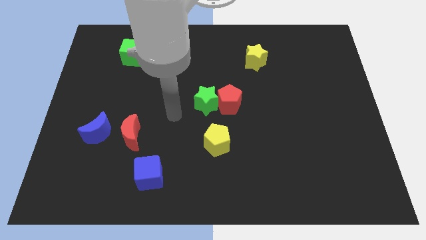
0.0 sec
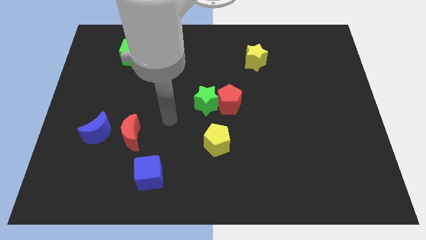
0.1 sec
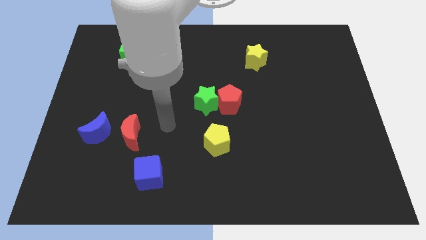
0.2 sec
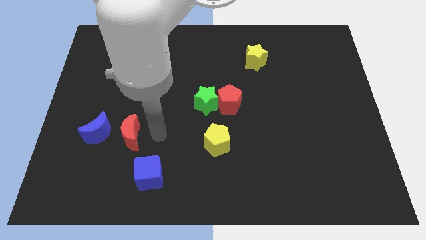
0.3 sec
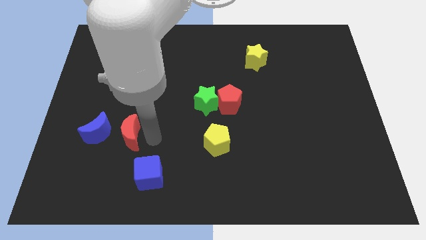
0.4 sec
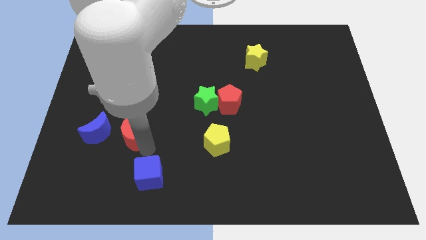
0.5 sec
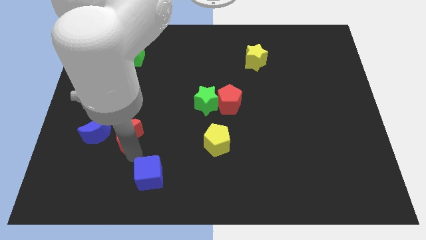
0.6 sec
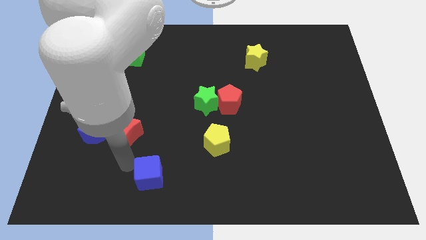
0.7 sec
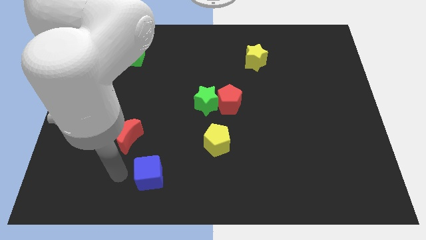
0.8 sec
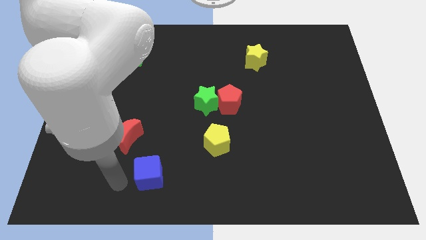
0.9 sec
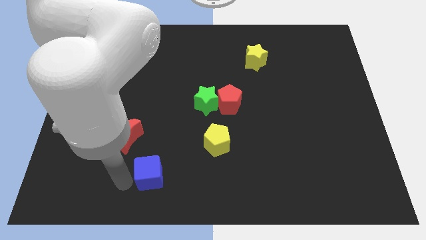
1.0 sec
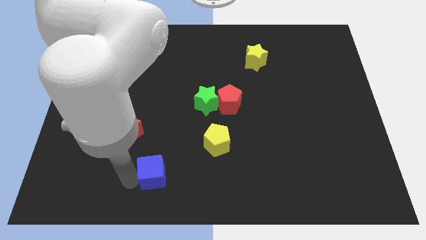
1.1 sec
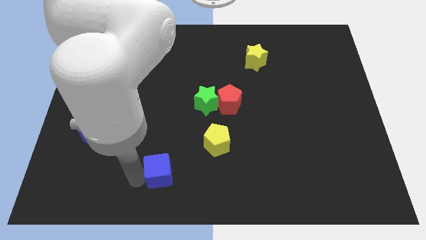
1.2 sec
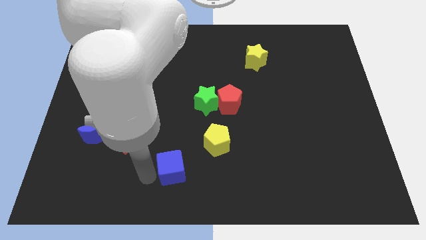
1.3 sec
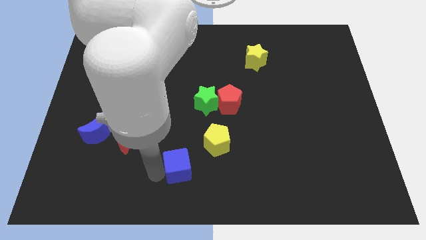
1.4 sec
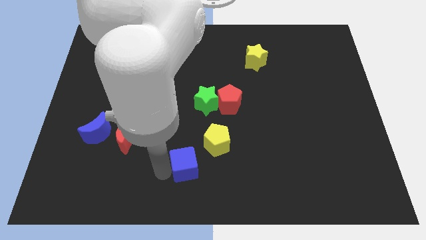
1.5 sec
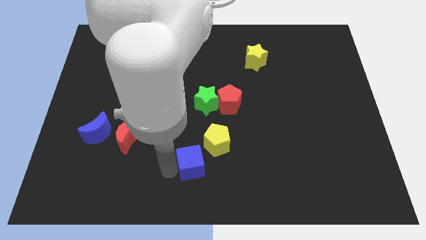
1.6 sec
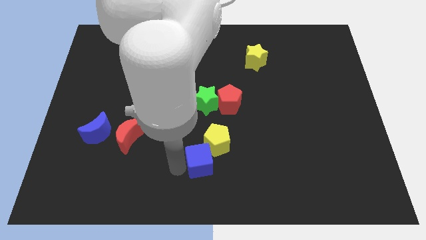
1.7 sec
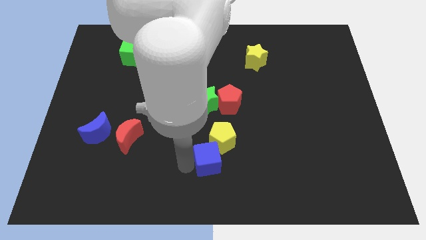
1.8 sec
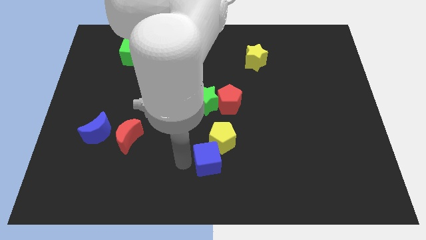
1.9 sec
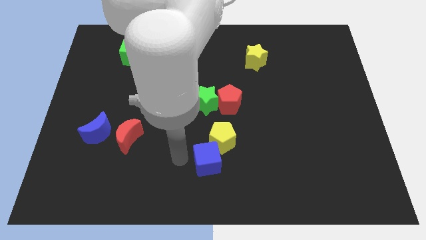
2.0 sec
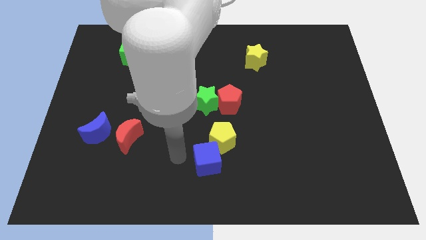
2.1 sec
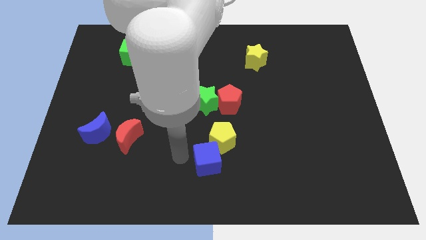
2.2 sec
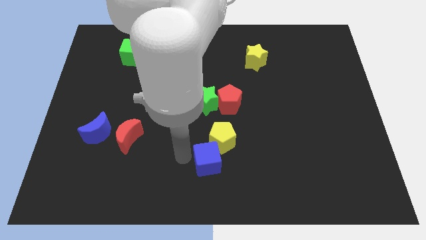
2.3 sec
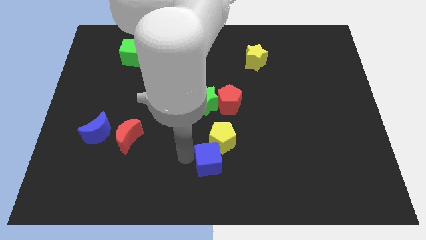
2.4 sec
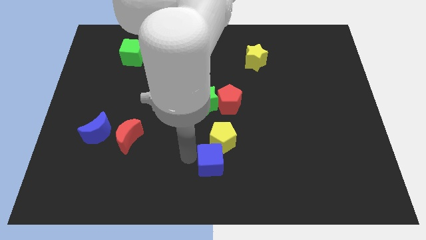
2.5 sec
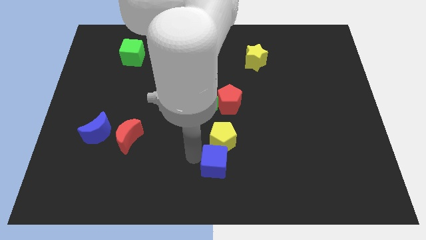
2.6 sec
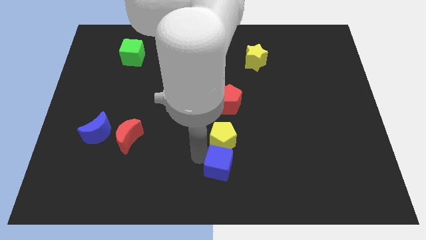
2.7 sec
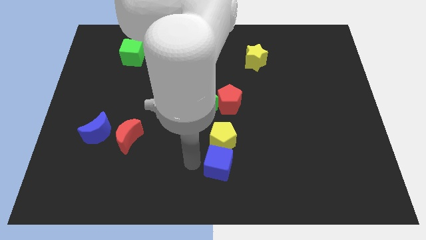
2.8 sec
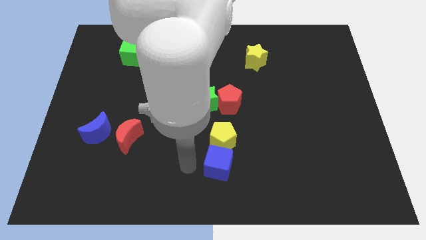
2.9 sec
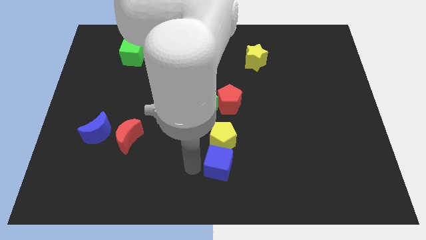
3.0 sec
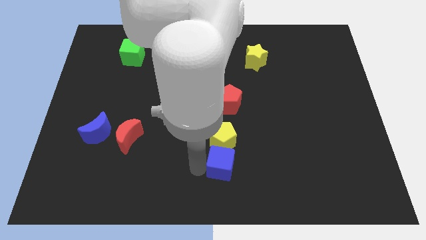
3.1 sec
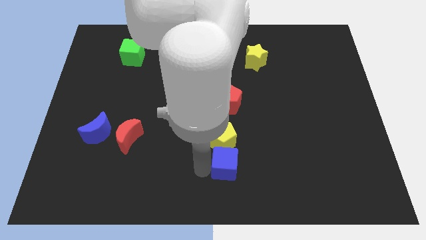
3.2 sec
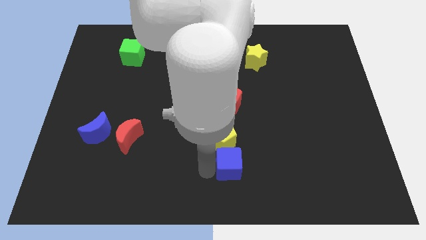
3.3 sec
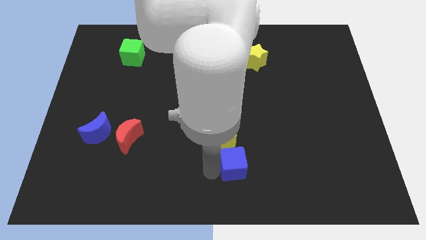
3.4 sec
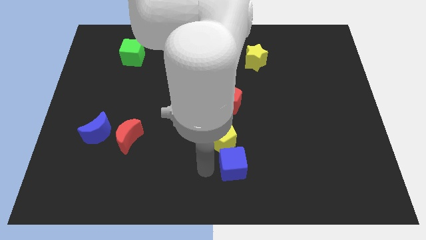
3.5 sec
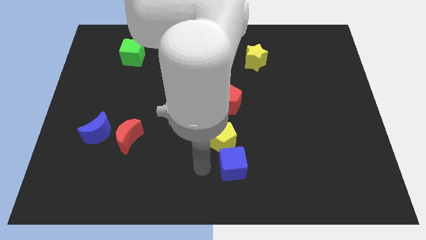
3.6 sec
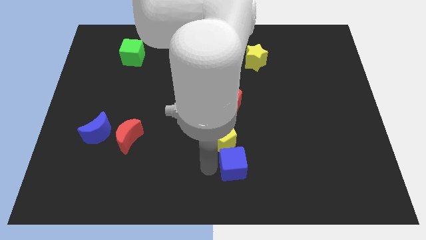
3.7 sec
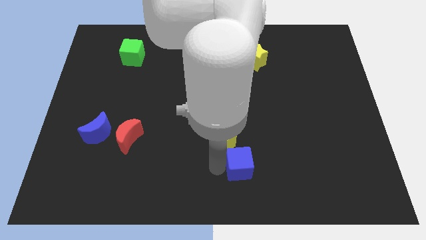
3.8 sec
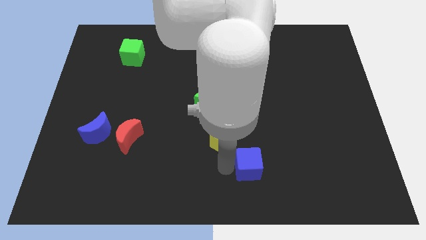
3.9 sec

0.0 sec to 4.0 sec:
push the blue cube to the right

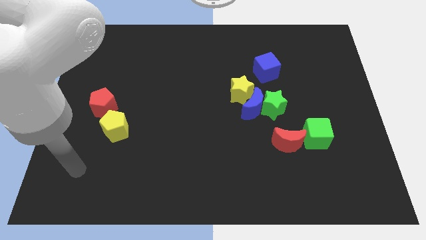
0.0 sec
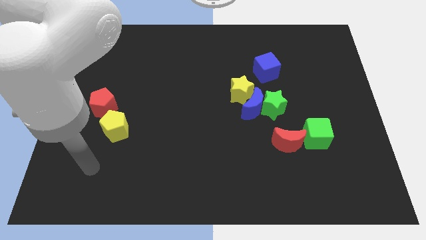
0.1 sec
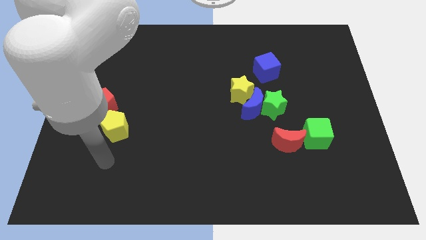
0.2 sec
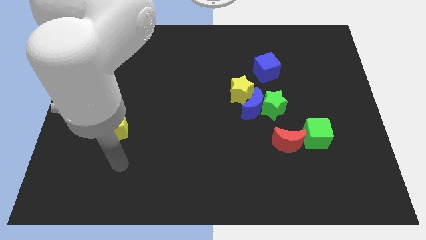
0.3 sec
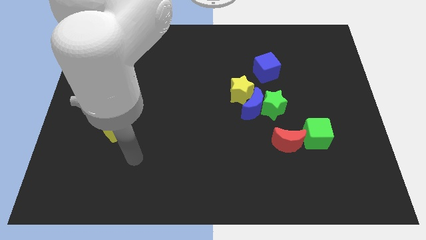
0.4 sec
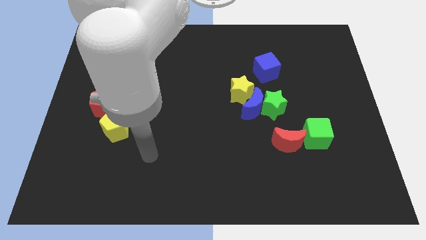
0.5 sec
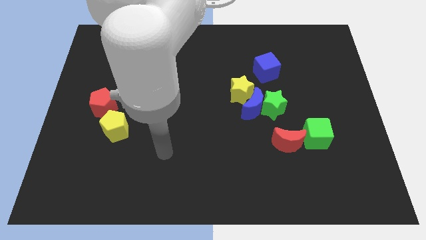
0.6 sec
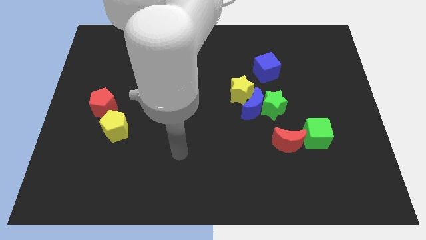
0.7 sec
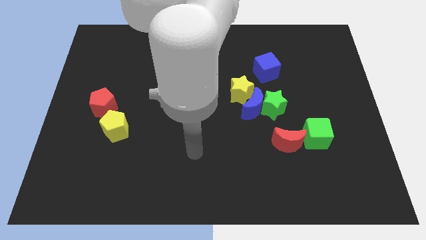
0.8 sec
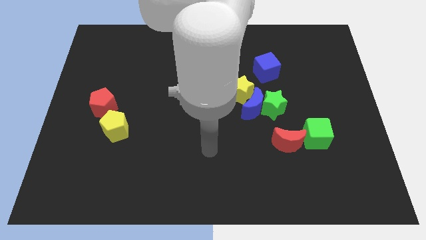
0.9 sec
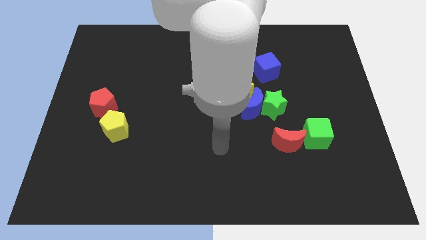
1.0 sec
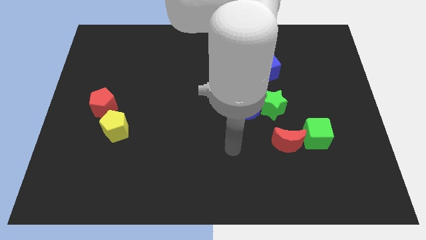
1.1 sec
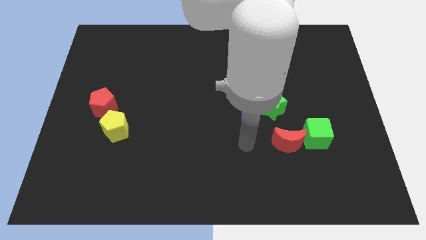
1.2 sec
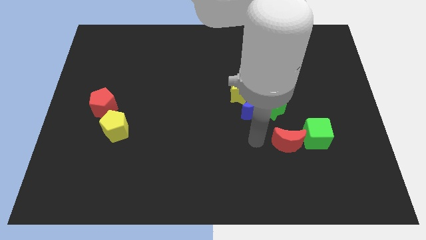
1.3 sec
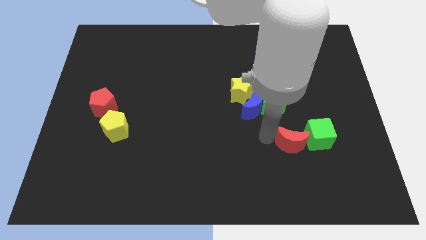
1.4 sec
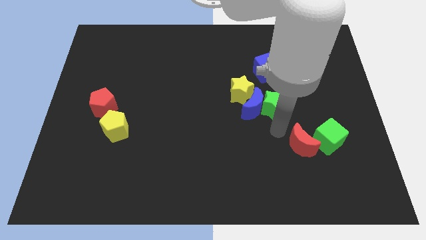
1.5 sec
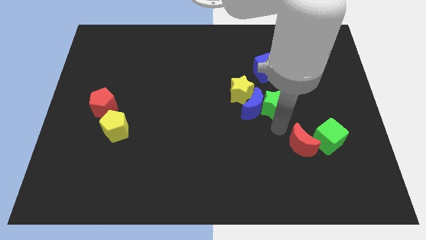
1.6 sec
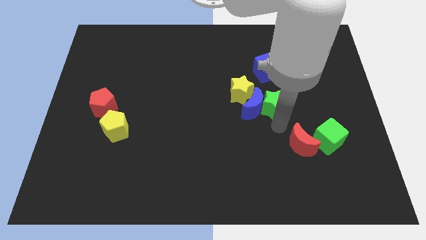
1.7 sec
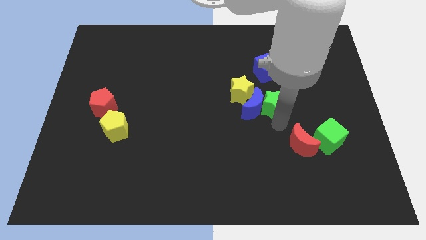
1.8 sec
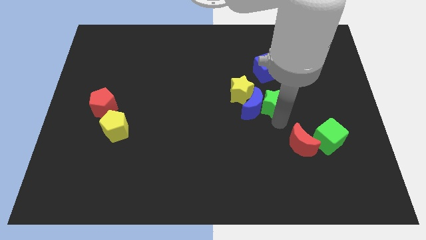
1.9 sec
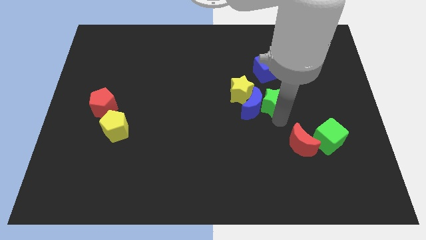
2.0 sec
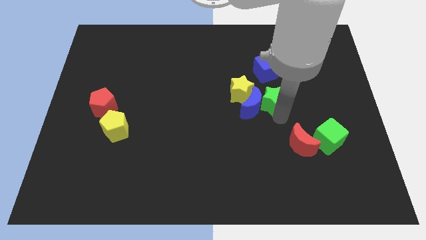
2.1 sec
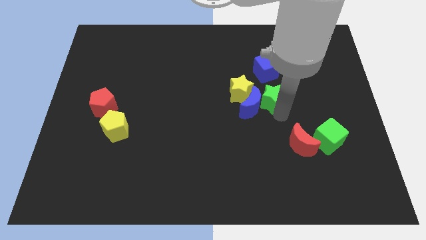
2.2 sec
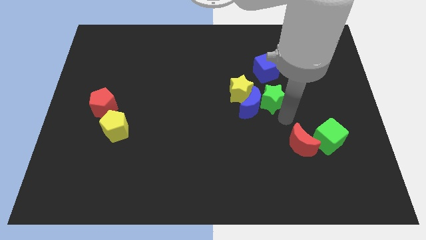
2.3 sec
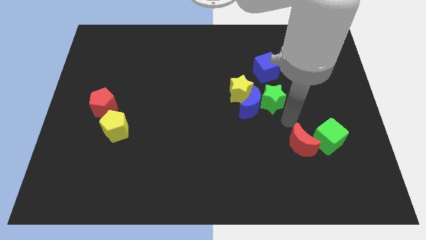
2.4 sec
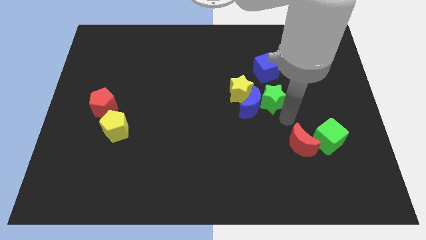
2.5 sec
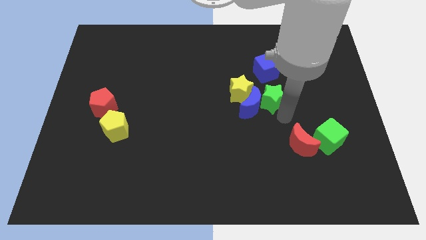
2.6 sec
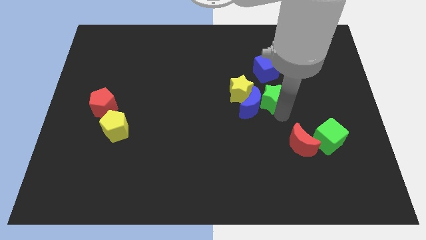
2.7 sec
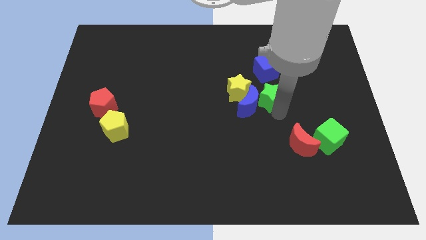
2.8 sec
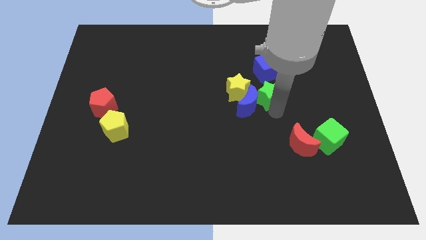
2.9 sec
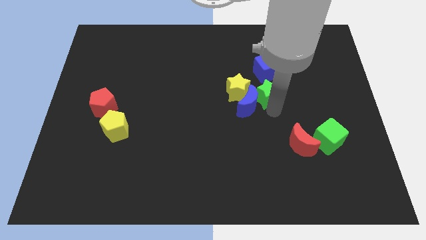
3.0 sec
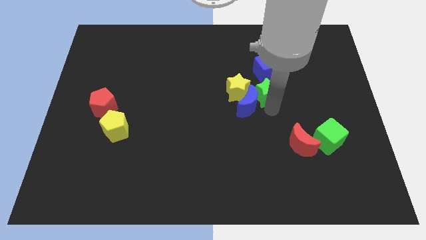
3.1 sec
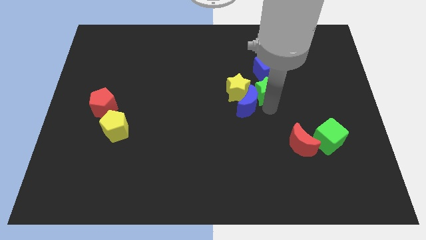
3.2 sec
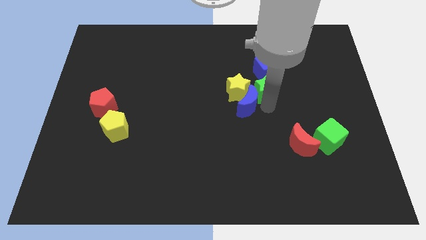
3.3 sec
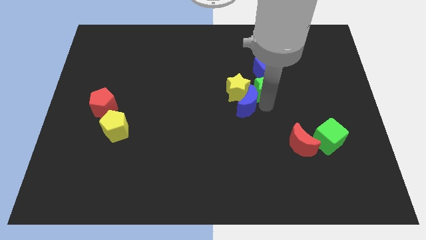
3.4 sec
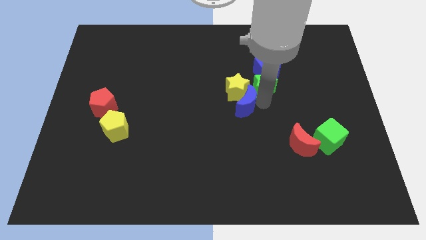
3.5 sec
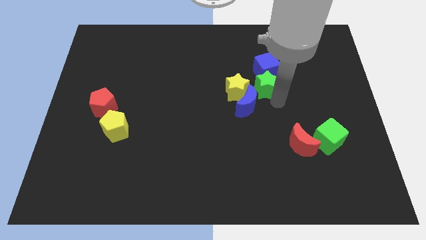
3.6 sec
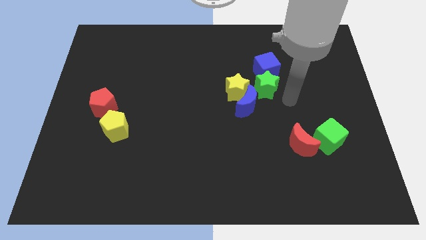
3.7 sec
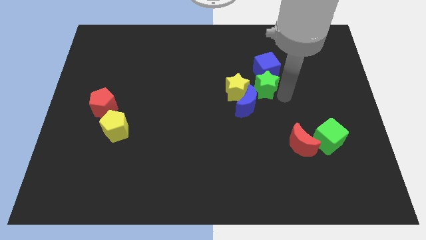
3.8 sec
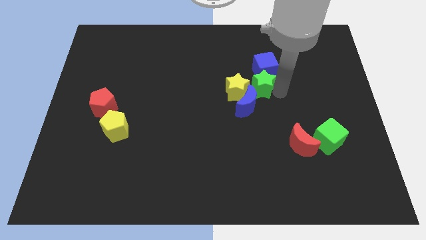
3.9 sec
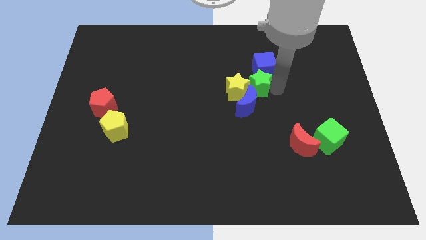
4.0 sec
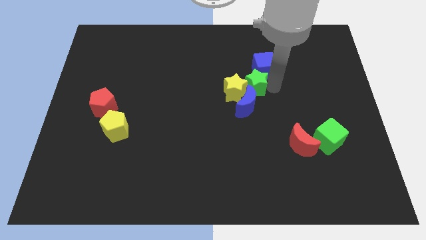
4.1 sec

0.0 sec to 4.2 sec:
slightly push the green star diagonally upwards and left
